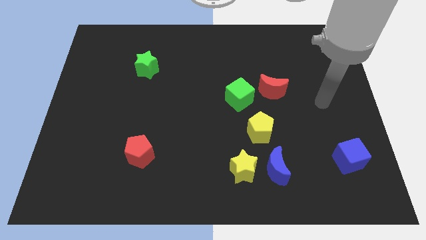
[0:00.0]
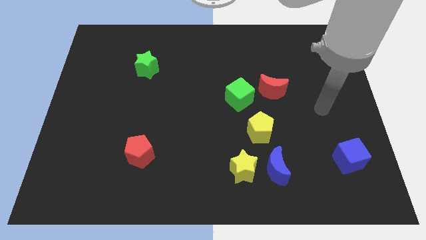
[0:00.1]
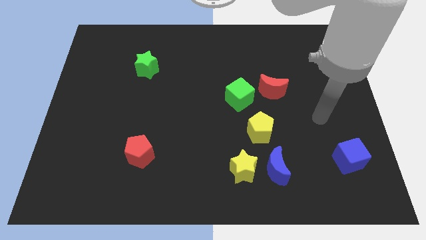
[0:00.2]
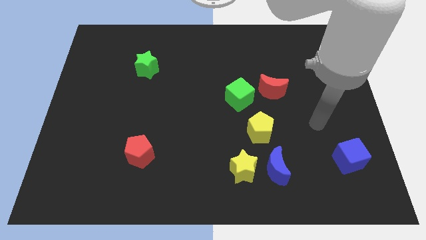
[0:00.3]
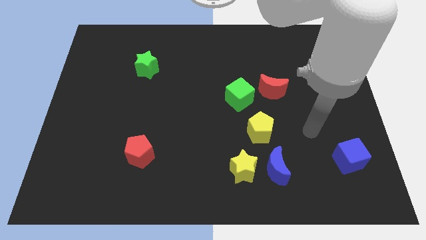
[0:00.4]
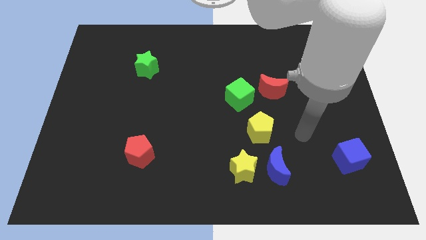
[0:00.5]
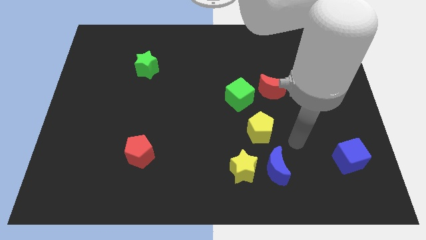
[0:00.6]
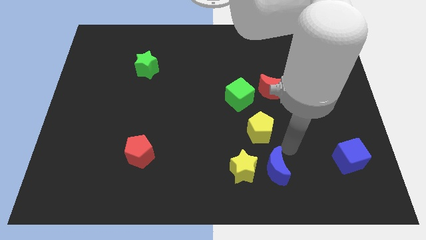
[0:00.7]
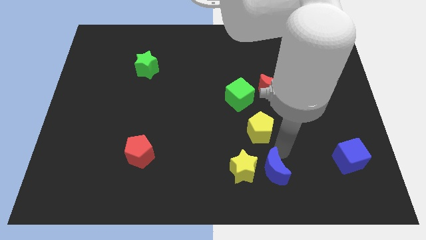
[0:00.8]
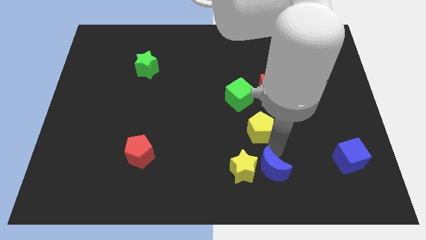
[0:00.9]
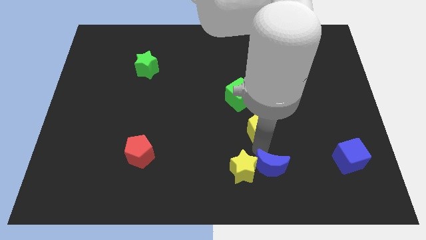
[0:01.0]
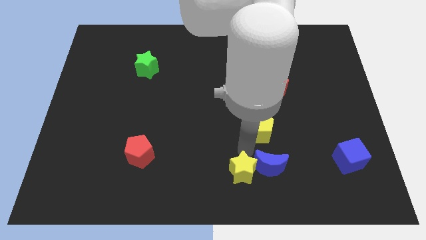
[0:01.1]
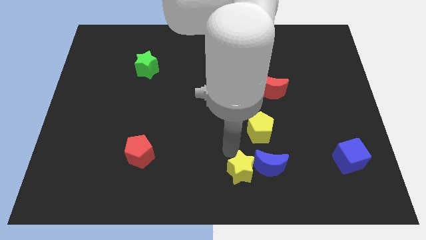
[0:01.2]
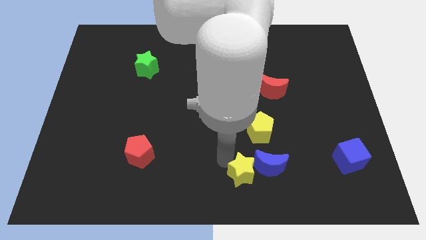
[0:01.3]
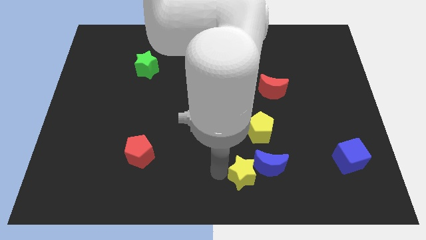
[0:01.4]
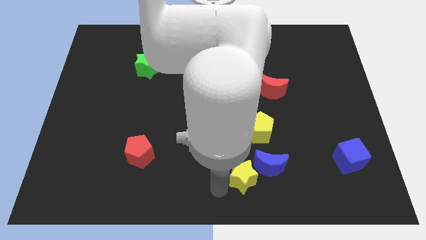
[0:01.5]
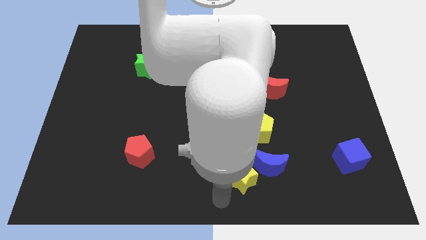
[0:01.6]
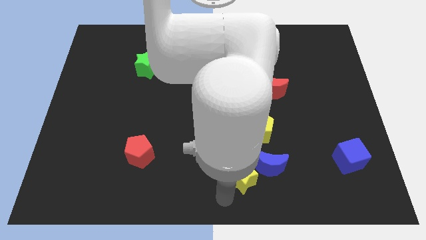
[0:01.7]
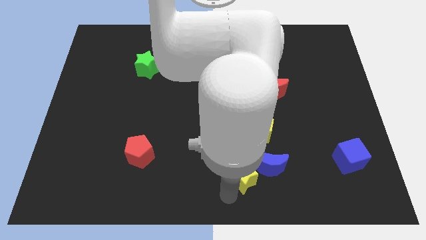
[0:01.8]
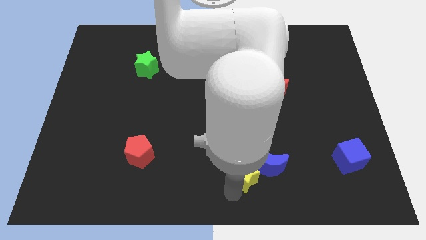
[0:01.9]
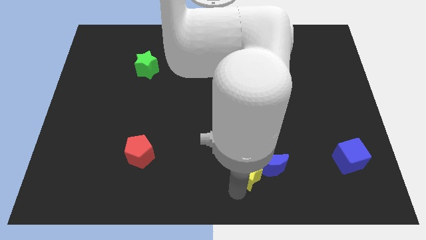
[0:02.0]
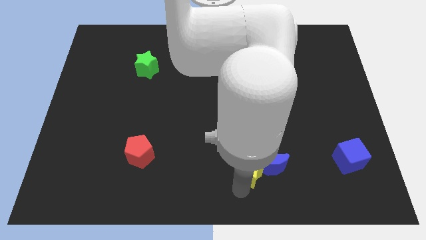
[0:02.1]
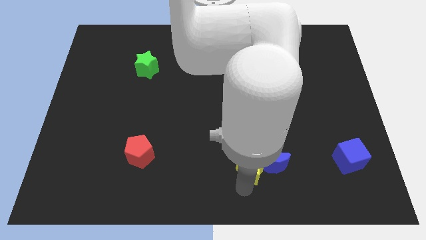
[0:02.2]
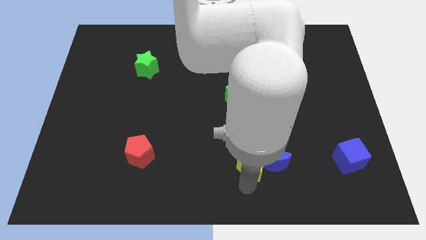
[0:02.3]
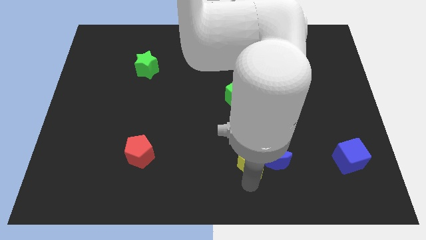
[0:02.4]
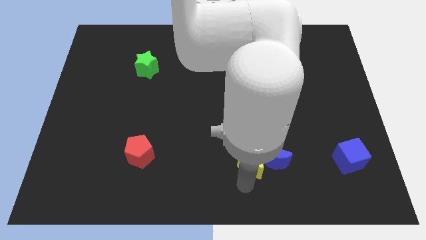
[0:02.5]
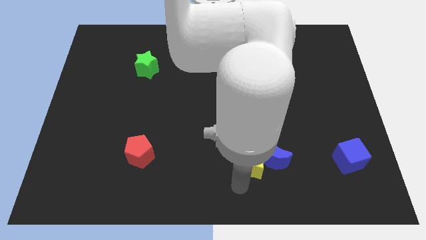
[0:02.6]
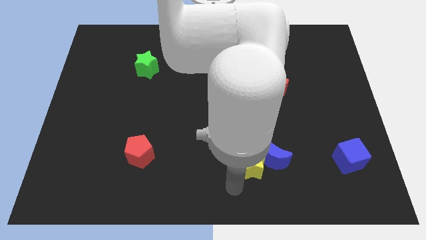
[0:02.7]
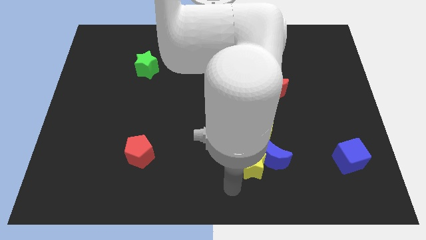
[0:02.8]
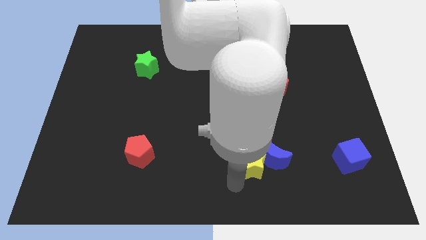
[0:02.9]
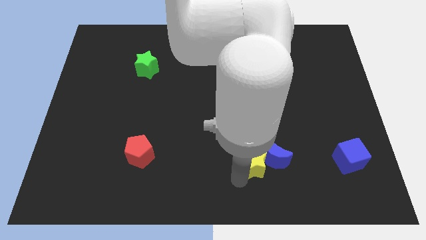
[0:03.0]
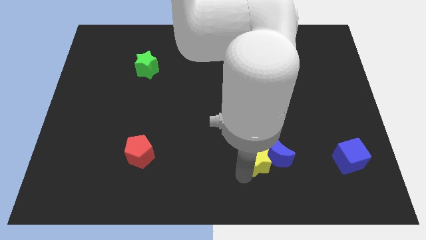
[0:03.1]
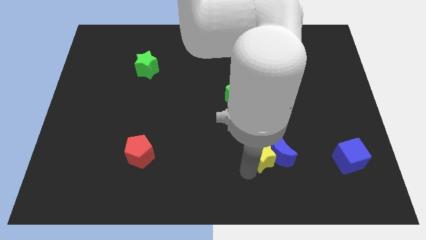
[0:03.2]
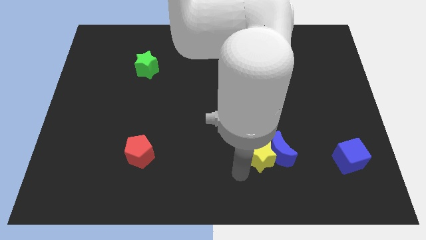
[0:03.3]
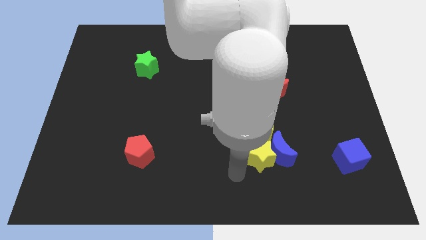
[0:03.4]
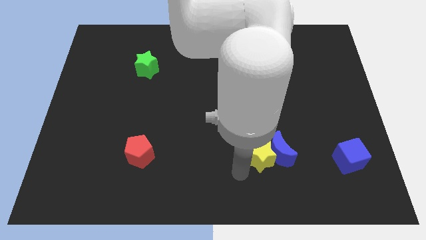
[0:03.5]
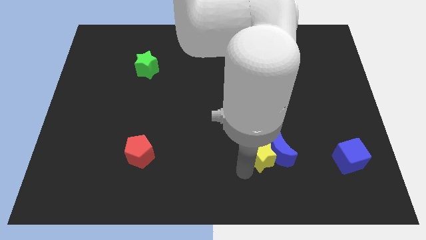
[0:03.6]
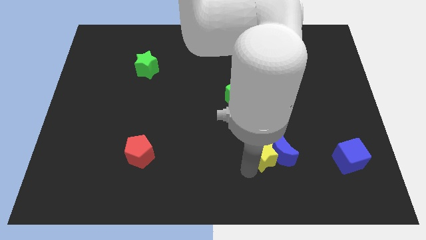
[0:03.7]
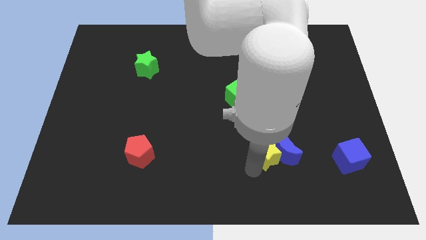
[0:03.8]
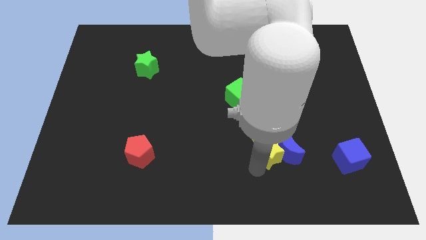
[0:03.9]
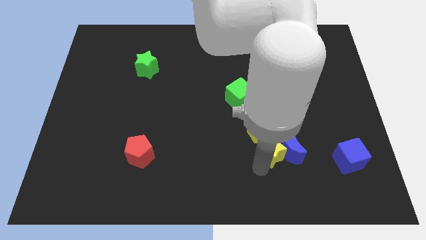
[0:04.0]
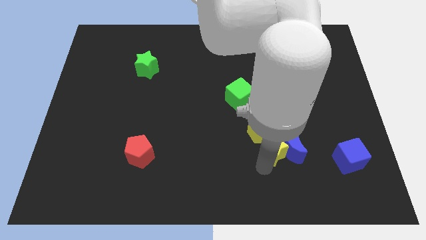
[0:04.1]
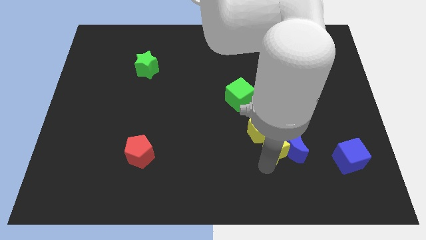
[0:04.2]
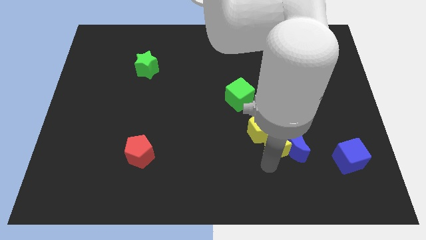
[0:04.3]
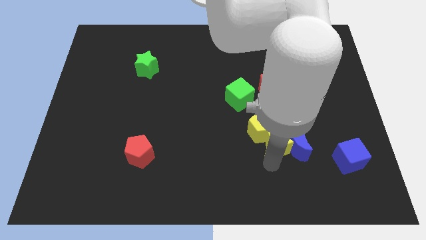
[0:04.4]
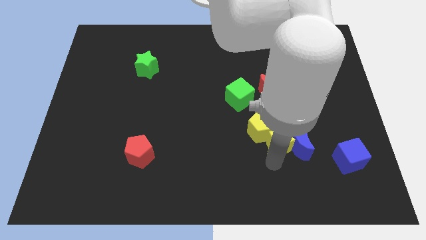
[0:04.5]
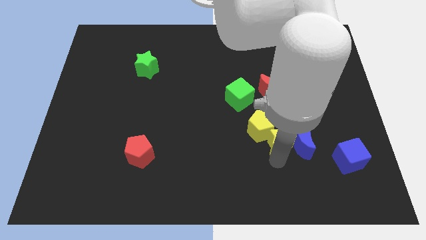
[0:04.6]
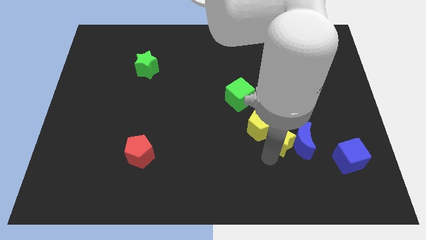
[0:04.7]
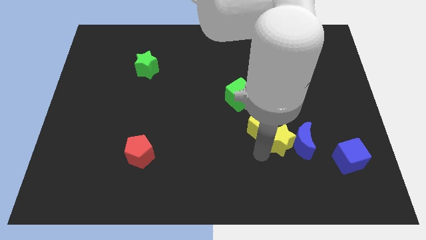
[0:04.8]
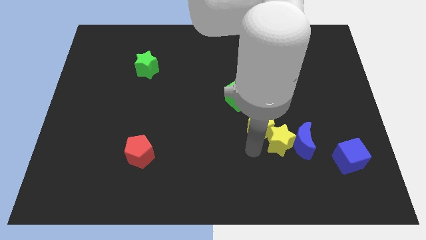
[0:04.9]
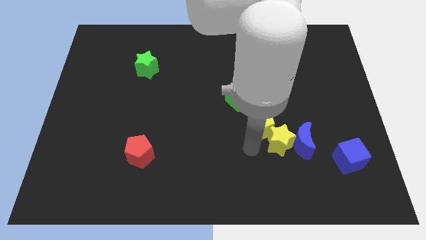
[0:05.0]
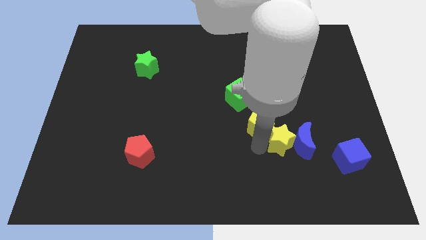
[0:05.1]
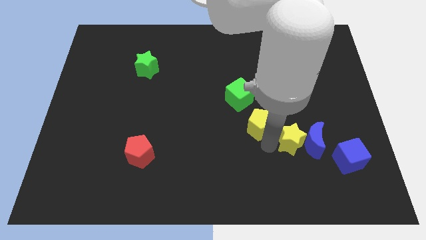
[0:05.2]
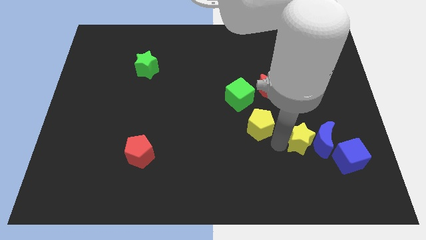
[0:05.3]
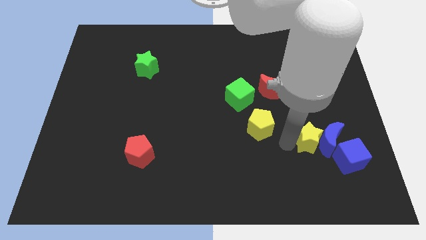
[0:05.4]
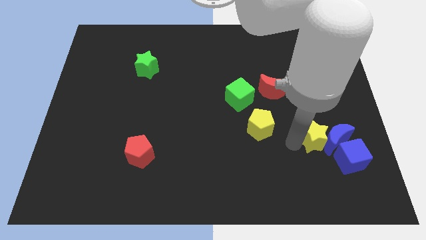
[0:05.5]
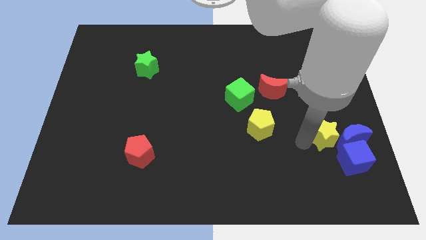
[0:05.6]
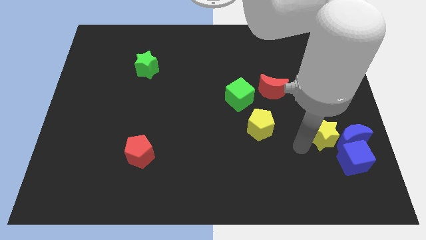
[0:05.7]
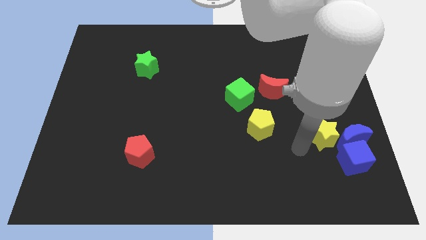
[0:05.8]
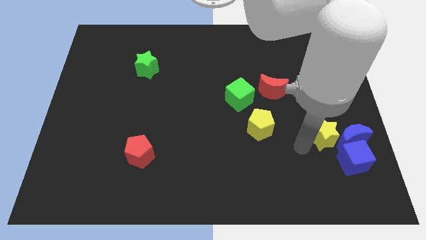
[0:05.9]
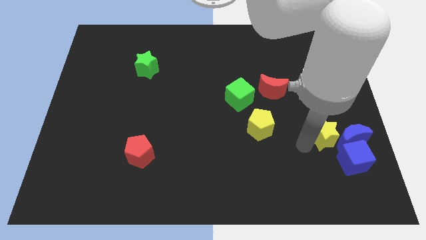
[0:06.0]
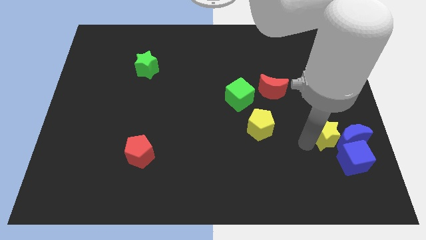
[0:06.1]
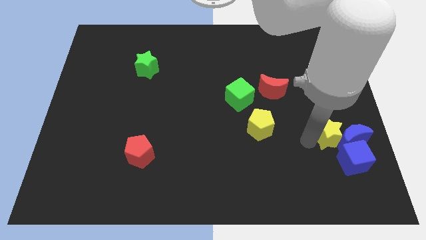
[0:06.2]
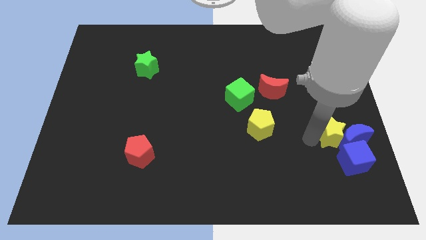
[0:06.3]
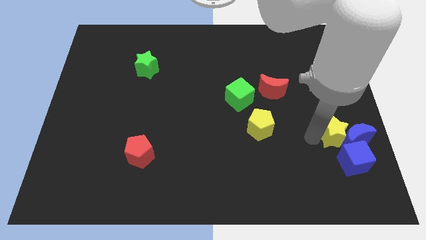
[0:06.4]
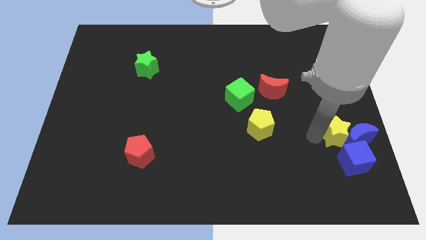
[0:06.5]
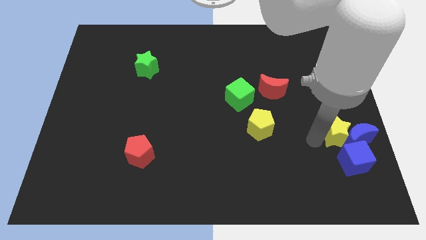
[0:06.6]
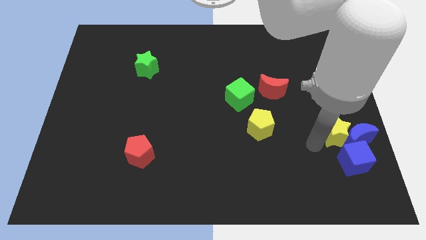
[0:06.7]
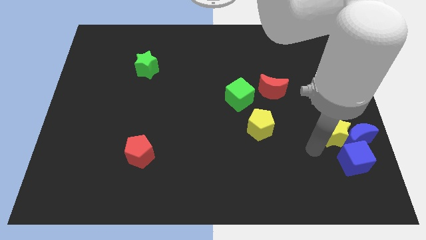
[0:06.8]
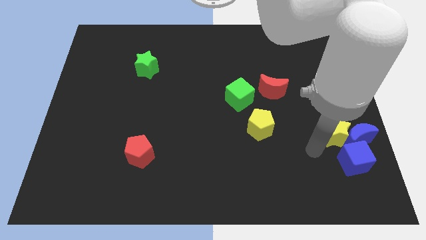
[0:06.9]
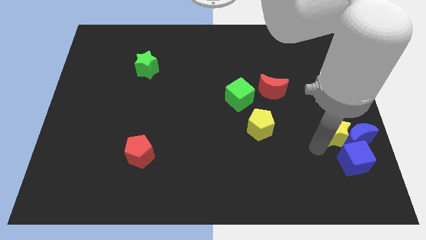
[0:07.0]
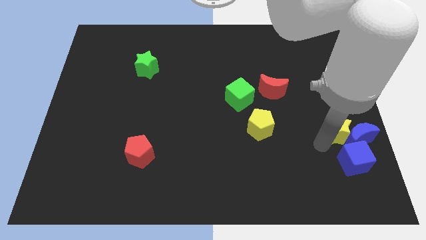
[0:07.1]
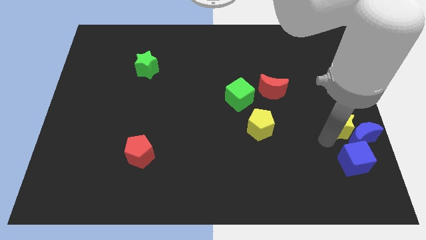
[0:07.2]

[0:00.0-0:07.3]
put the yellow star to the center right

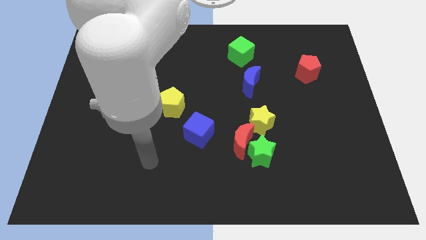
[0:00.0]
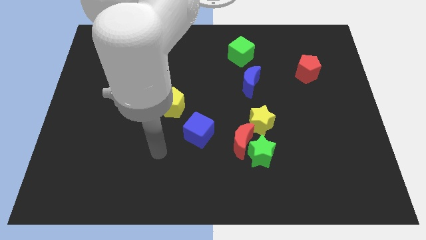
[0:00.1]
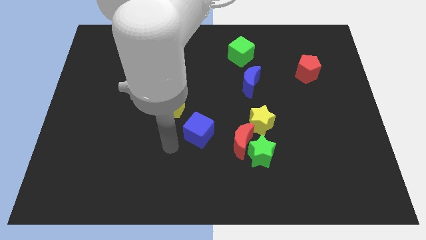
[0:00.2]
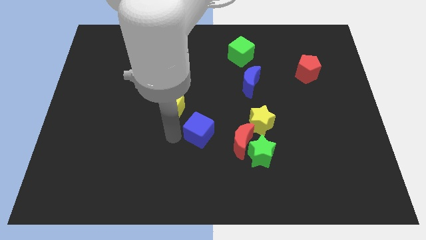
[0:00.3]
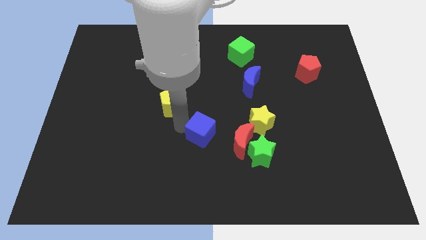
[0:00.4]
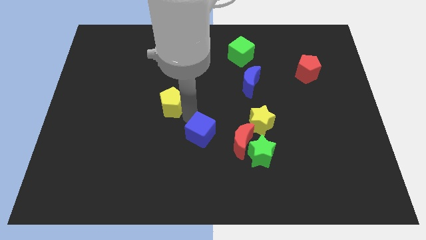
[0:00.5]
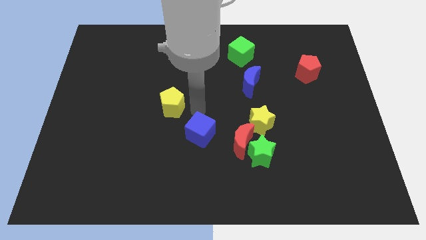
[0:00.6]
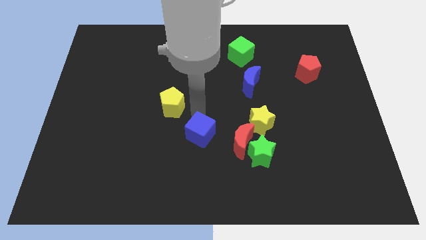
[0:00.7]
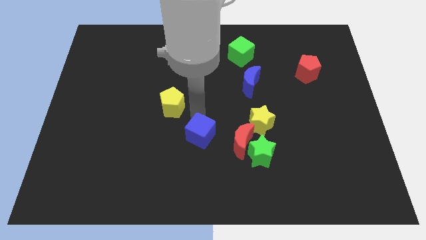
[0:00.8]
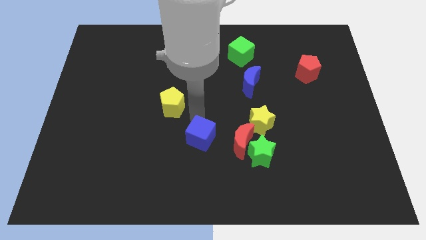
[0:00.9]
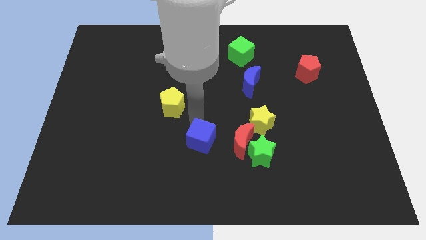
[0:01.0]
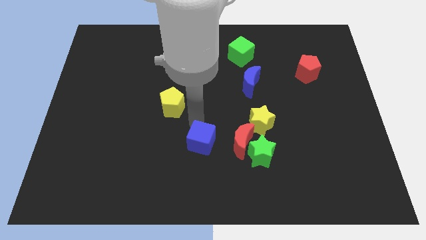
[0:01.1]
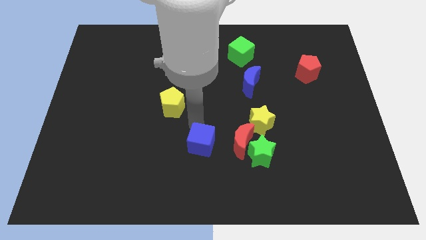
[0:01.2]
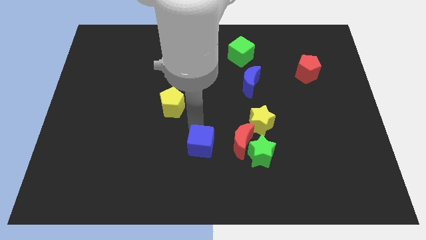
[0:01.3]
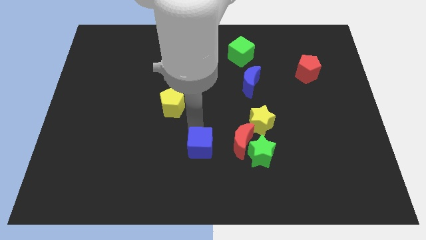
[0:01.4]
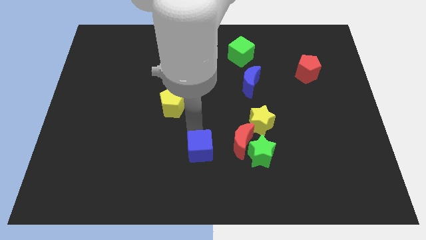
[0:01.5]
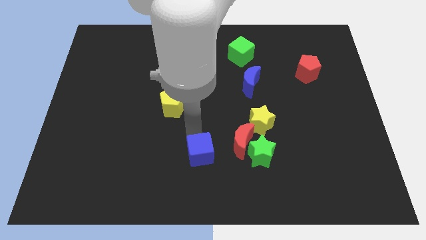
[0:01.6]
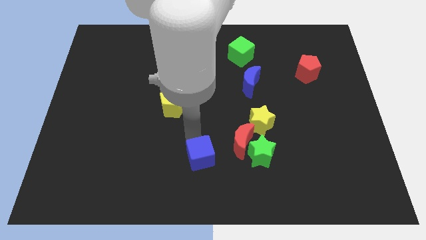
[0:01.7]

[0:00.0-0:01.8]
slide the blue cube to the bottom side
